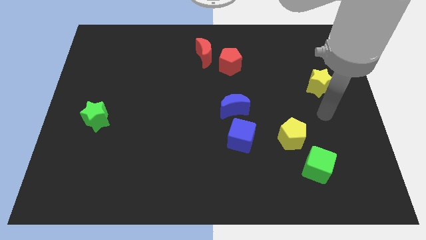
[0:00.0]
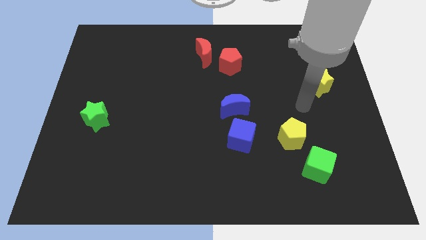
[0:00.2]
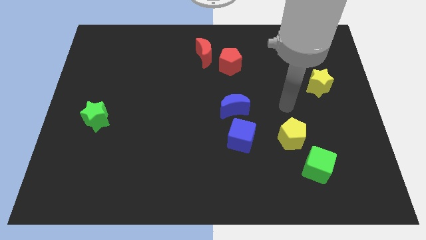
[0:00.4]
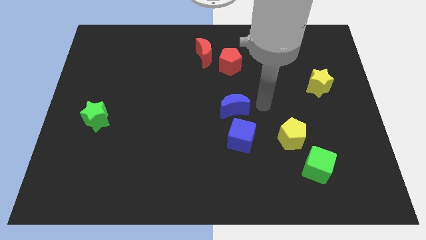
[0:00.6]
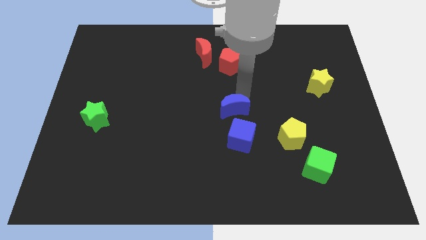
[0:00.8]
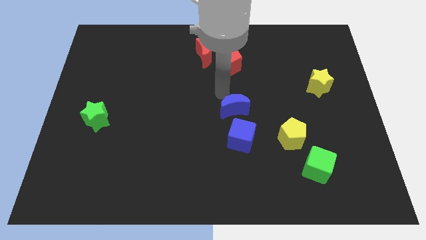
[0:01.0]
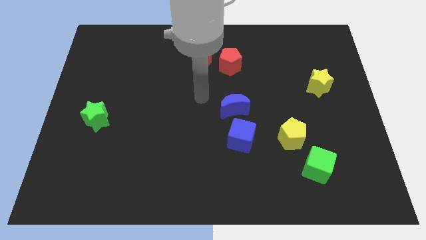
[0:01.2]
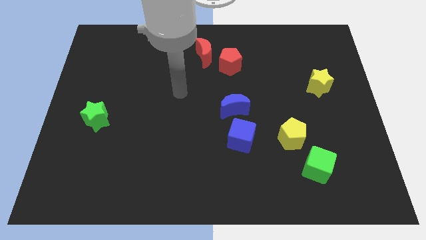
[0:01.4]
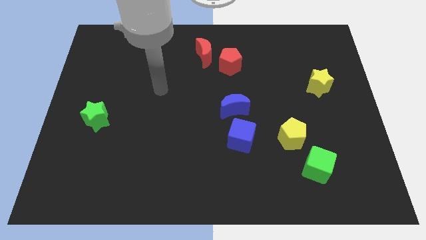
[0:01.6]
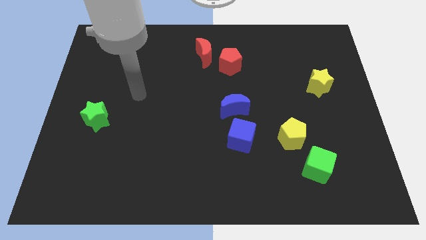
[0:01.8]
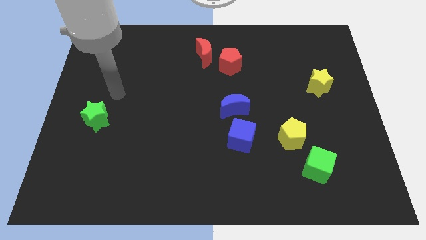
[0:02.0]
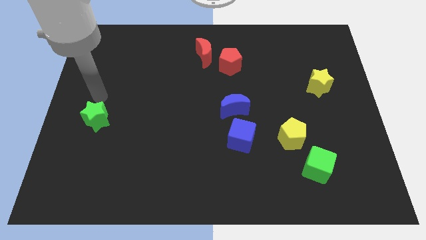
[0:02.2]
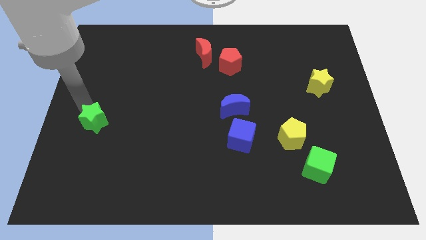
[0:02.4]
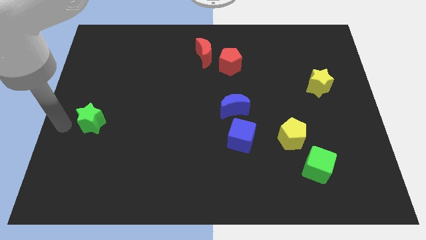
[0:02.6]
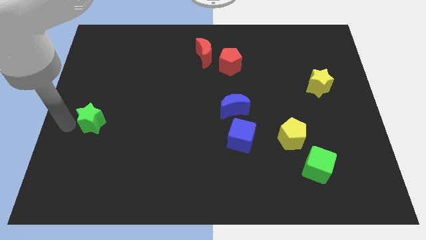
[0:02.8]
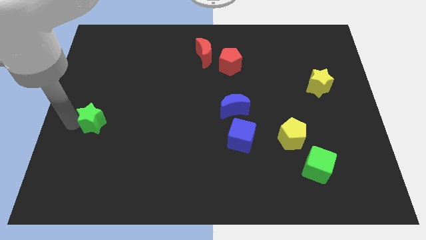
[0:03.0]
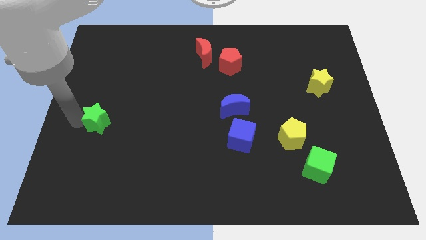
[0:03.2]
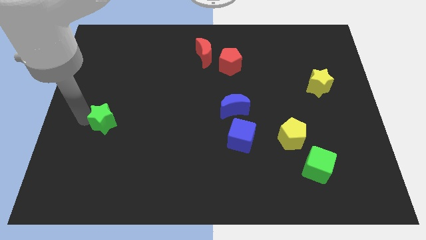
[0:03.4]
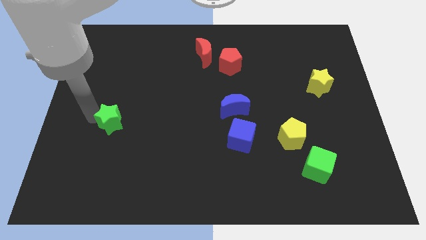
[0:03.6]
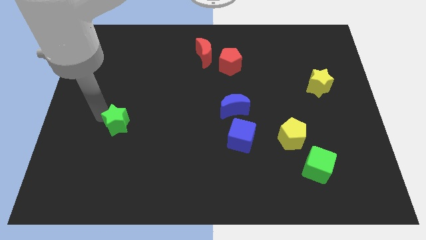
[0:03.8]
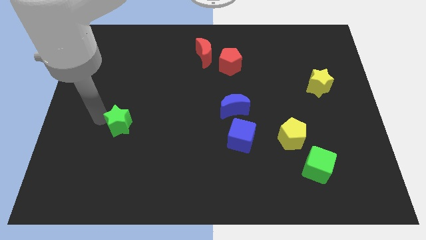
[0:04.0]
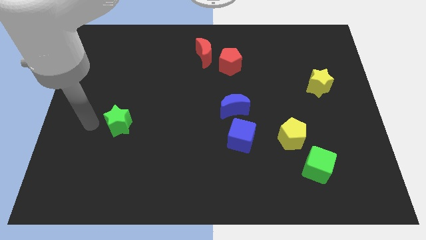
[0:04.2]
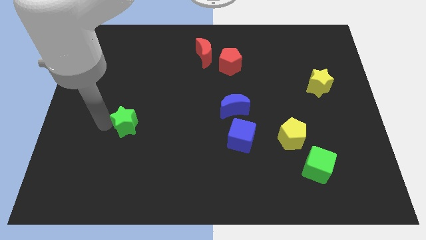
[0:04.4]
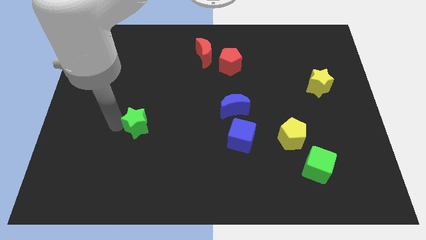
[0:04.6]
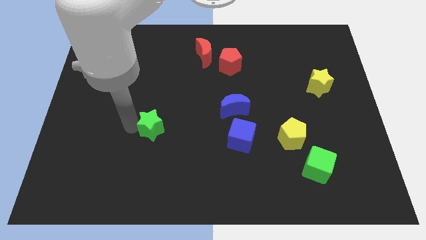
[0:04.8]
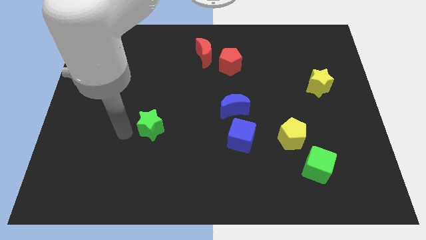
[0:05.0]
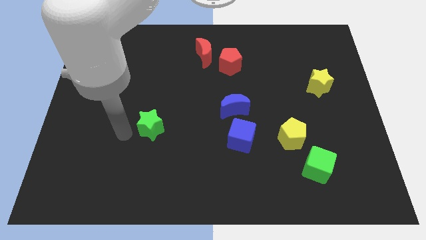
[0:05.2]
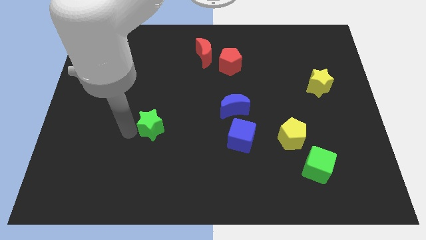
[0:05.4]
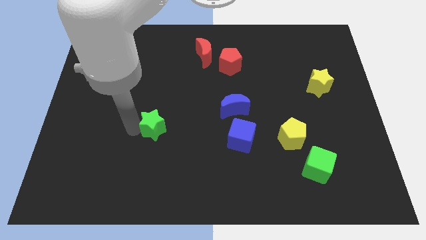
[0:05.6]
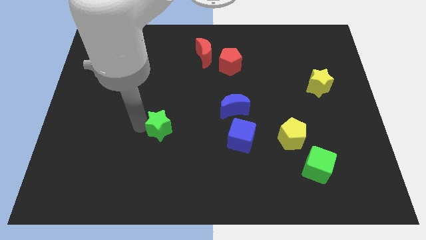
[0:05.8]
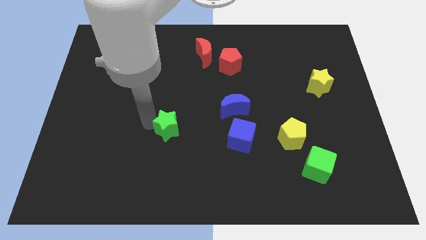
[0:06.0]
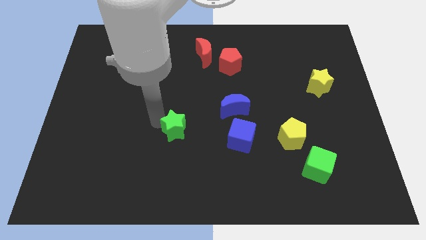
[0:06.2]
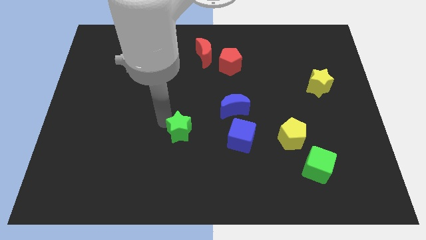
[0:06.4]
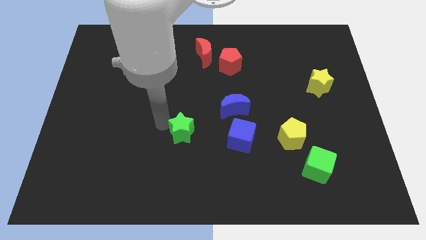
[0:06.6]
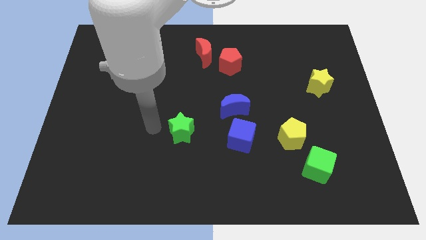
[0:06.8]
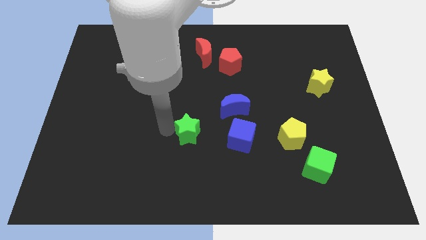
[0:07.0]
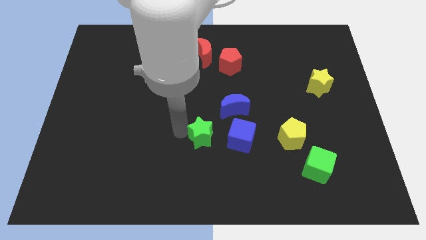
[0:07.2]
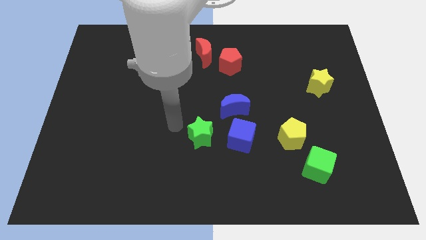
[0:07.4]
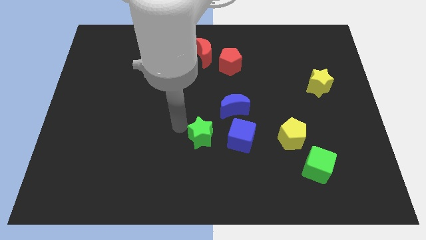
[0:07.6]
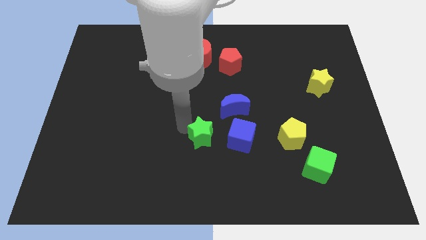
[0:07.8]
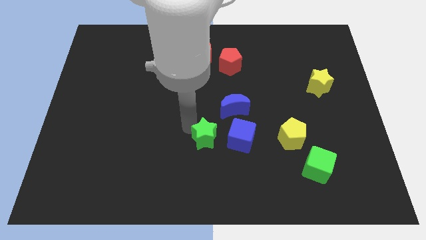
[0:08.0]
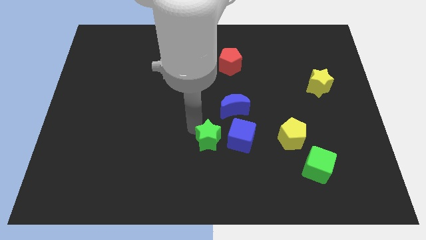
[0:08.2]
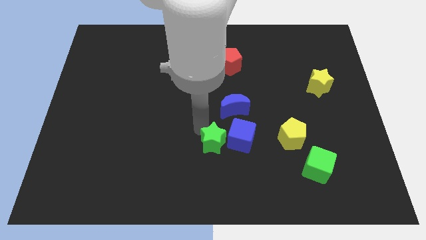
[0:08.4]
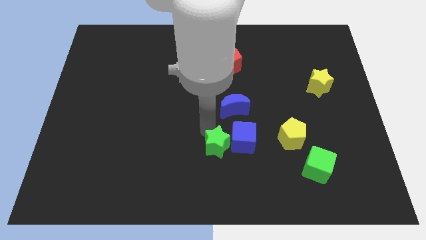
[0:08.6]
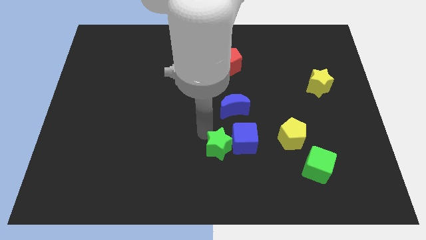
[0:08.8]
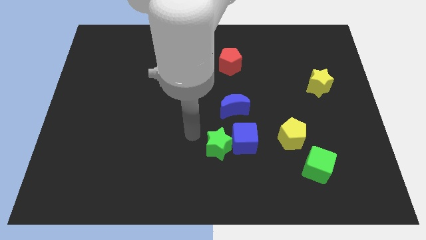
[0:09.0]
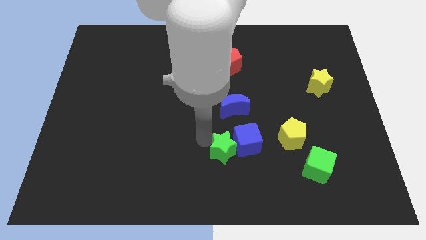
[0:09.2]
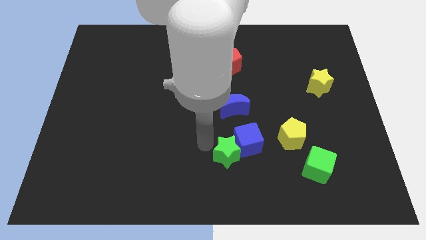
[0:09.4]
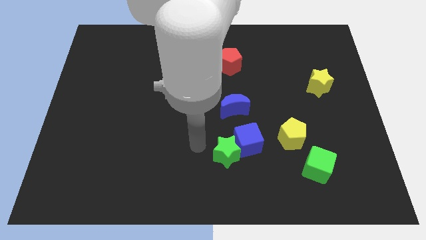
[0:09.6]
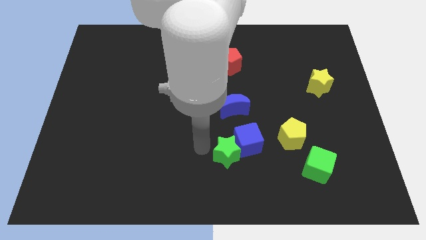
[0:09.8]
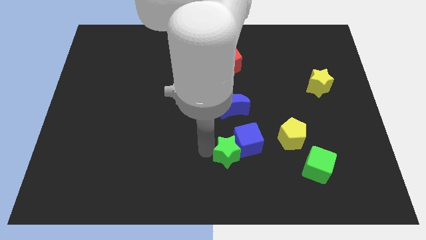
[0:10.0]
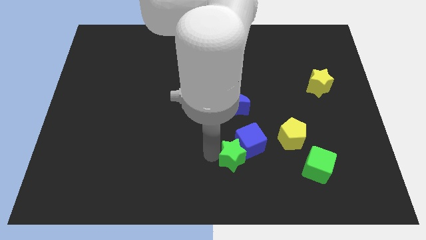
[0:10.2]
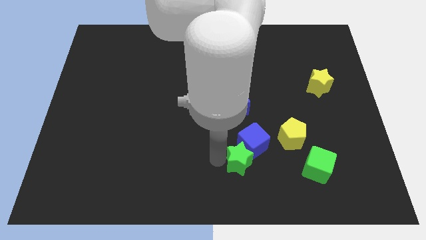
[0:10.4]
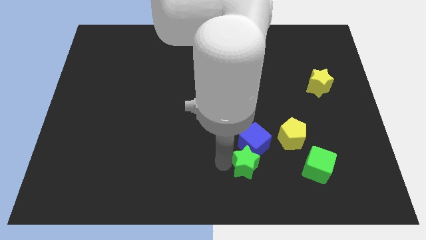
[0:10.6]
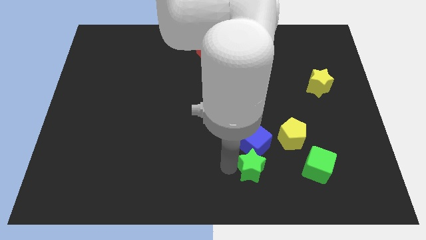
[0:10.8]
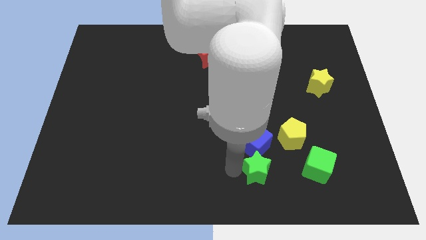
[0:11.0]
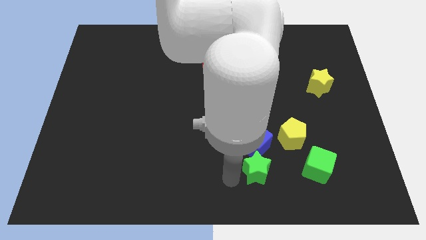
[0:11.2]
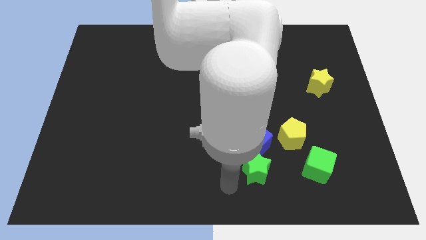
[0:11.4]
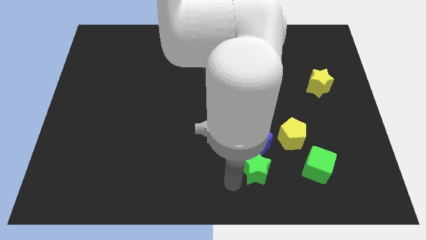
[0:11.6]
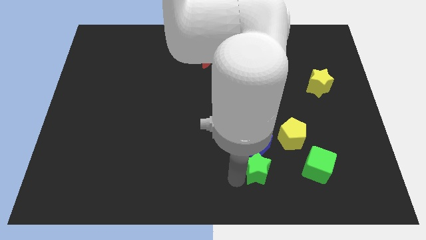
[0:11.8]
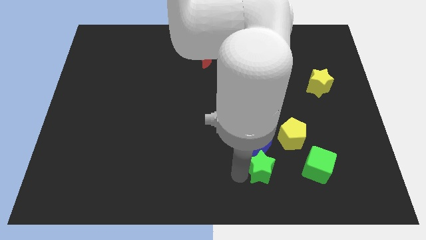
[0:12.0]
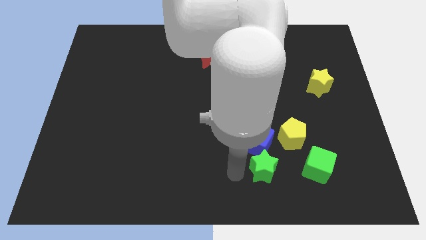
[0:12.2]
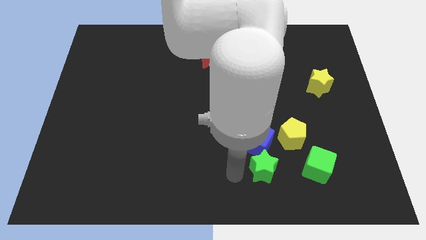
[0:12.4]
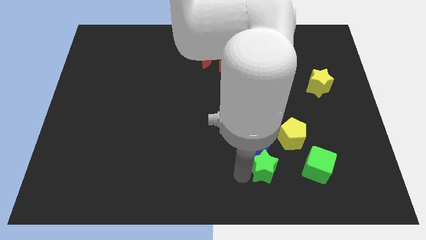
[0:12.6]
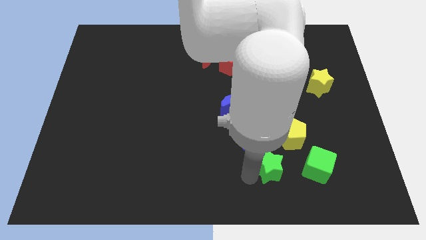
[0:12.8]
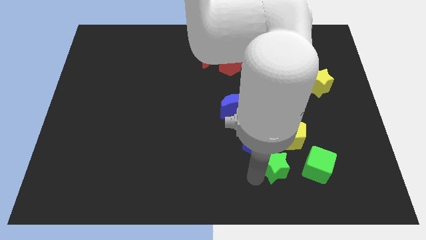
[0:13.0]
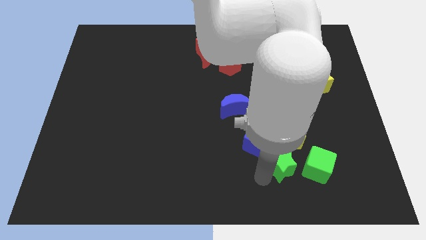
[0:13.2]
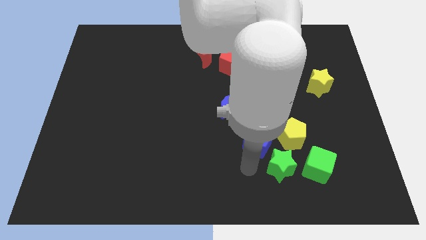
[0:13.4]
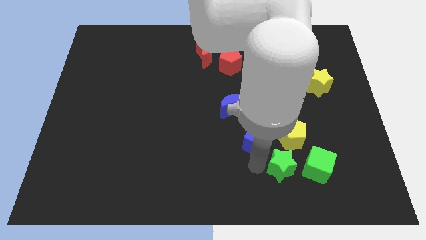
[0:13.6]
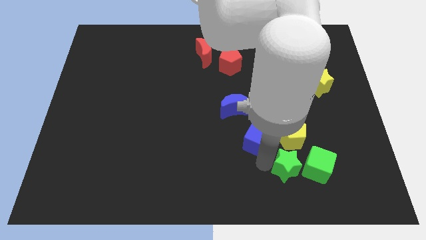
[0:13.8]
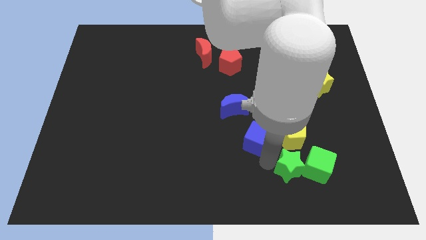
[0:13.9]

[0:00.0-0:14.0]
move the green star next to the green cube
